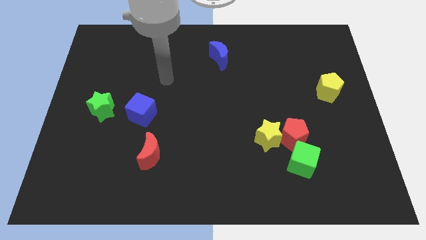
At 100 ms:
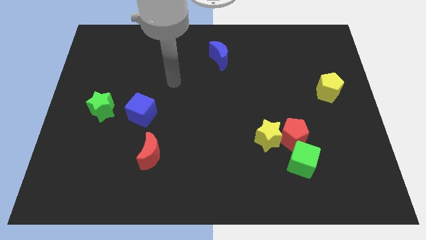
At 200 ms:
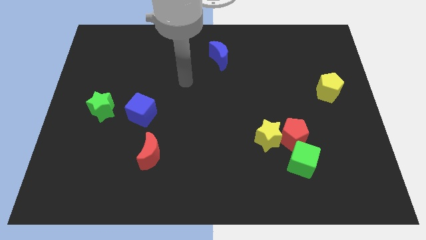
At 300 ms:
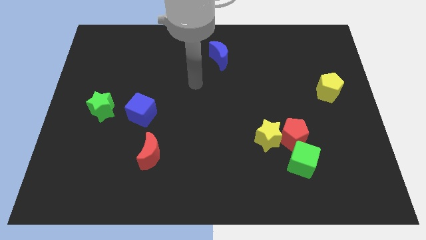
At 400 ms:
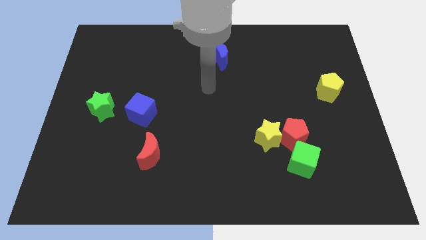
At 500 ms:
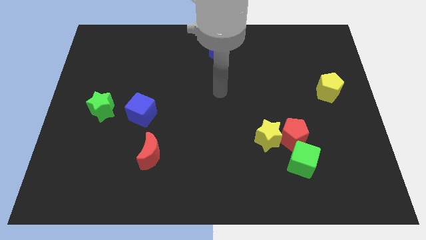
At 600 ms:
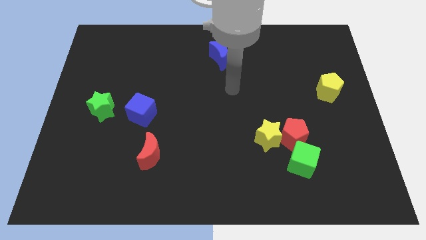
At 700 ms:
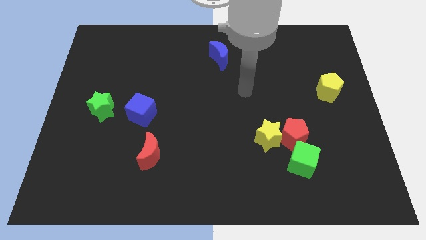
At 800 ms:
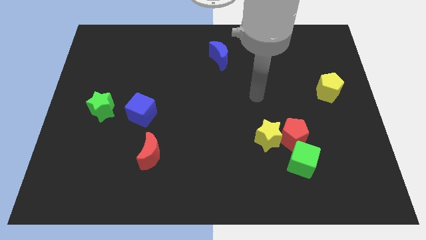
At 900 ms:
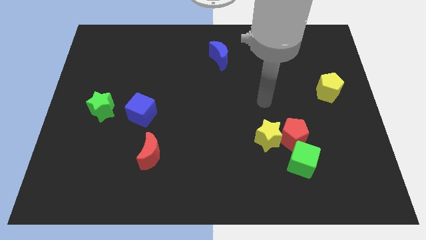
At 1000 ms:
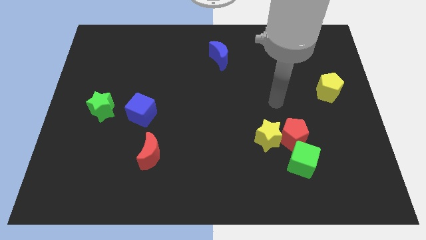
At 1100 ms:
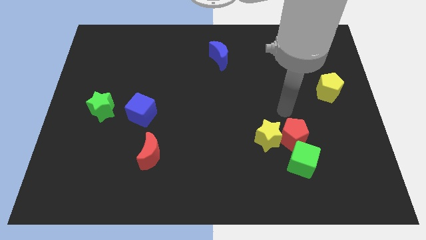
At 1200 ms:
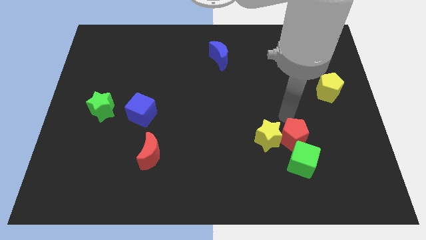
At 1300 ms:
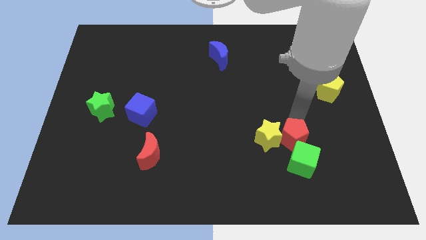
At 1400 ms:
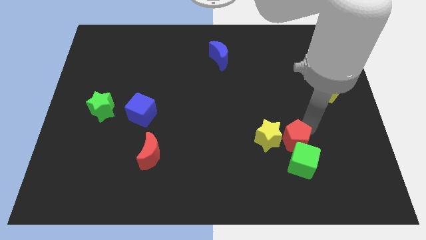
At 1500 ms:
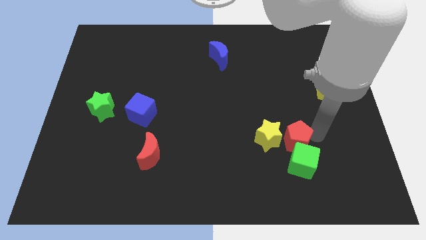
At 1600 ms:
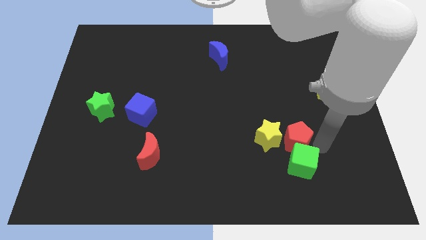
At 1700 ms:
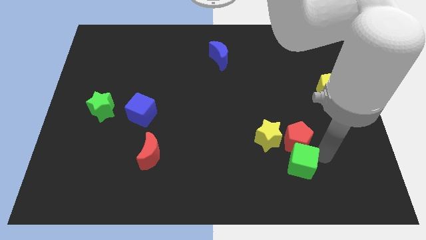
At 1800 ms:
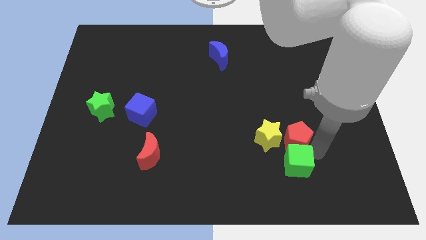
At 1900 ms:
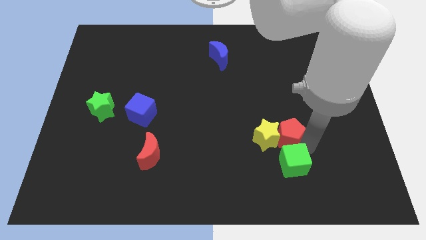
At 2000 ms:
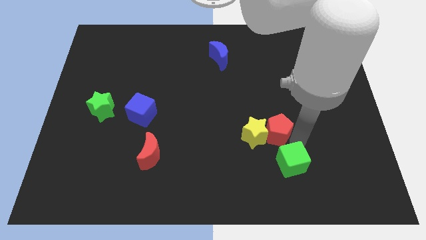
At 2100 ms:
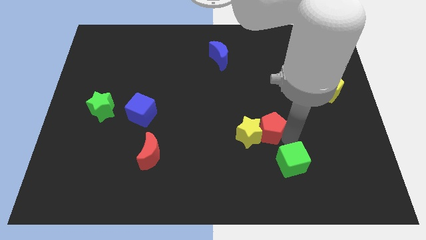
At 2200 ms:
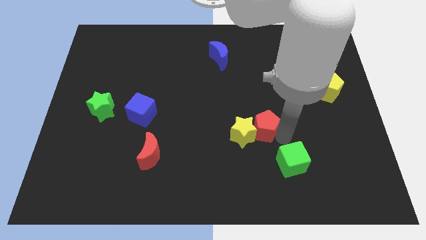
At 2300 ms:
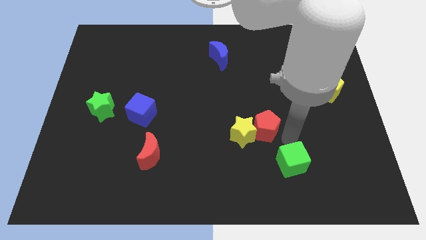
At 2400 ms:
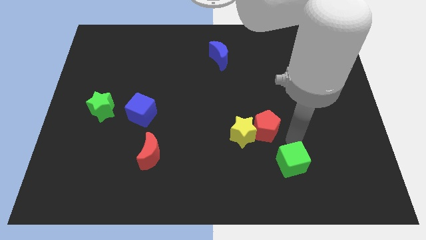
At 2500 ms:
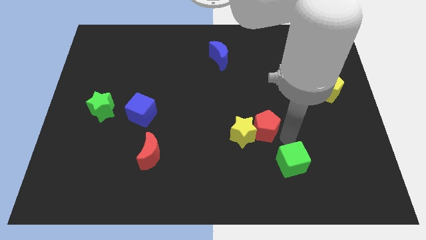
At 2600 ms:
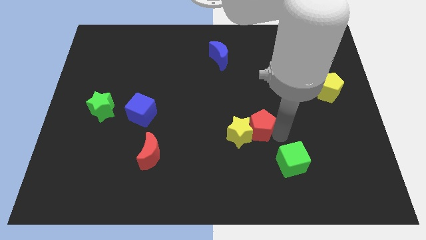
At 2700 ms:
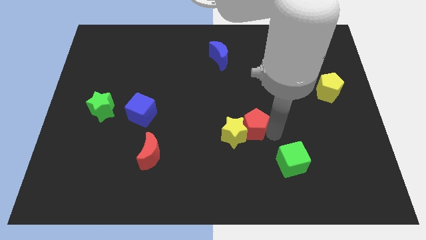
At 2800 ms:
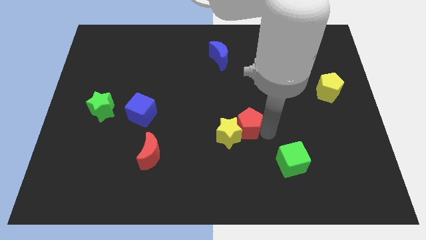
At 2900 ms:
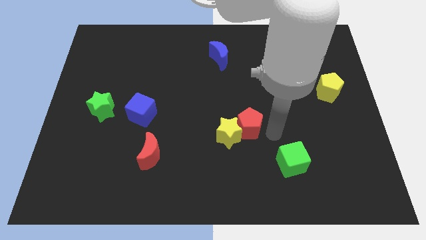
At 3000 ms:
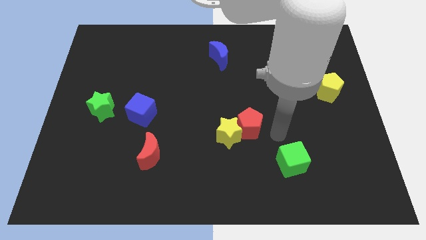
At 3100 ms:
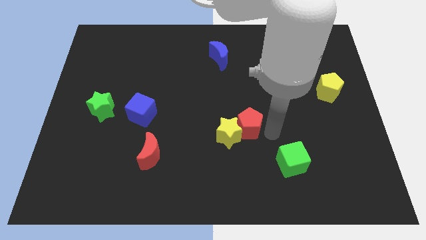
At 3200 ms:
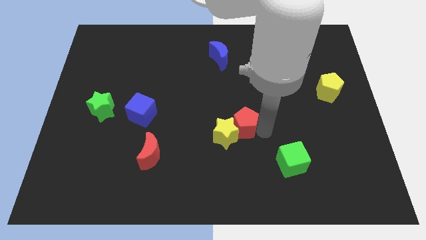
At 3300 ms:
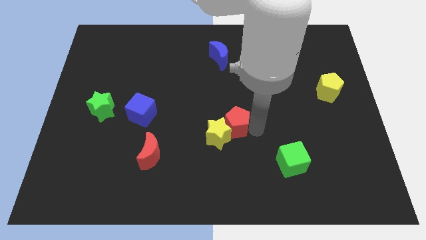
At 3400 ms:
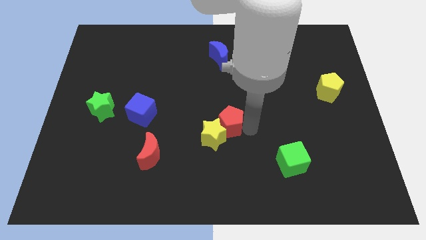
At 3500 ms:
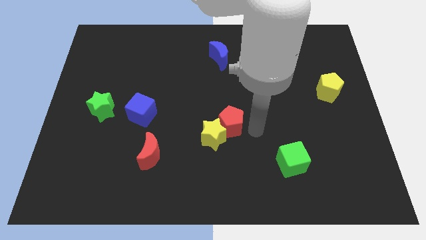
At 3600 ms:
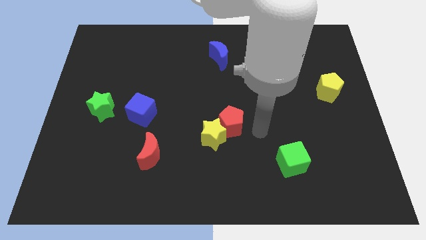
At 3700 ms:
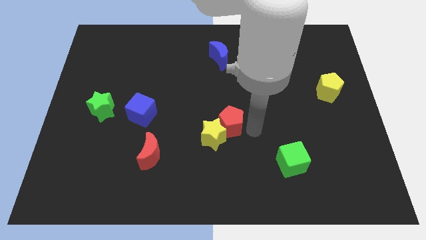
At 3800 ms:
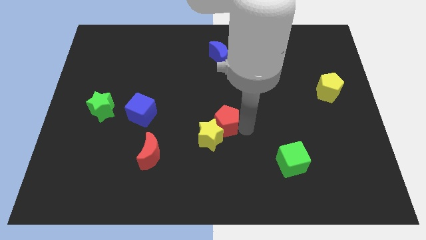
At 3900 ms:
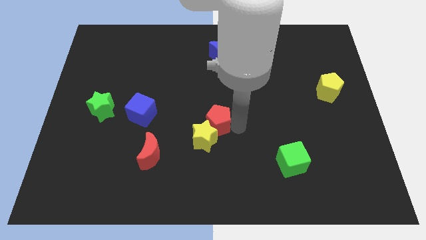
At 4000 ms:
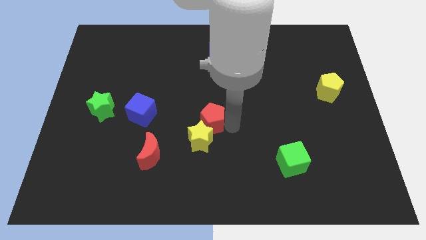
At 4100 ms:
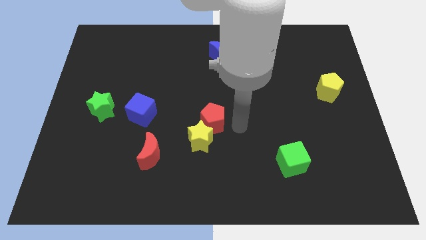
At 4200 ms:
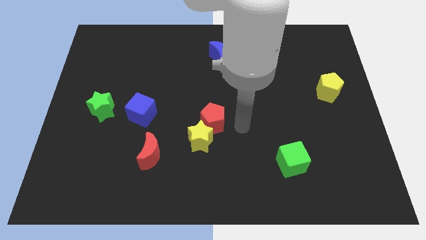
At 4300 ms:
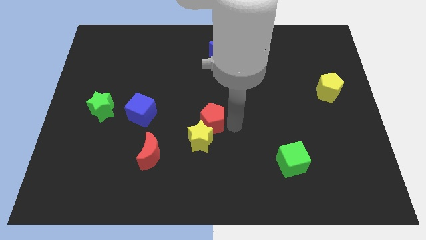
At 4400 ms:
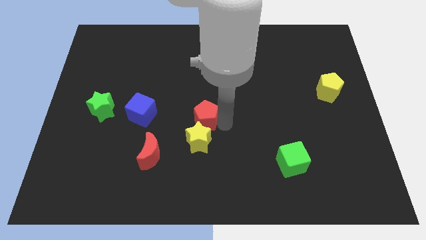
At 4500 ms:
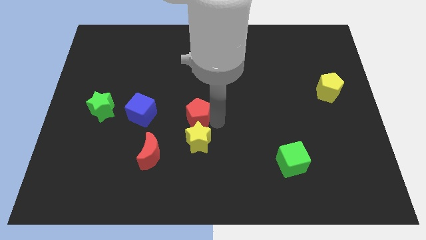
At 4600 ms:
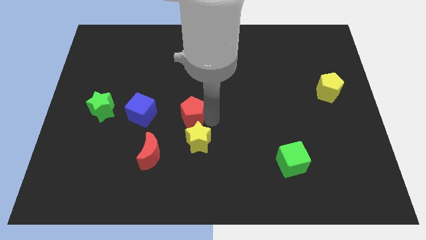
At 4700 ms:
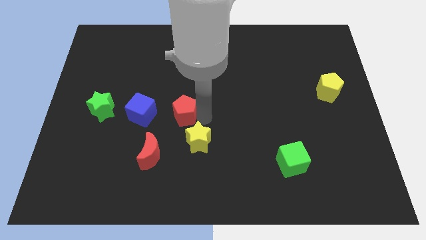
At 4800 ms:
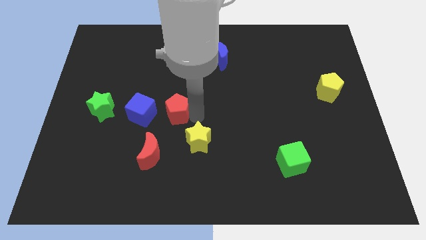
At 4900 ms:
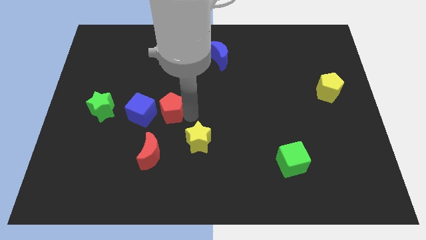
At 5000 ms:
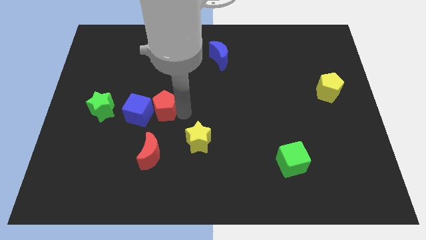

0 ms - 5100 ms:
put the red pentagon next to the blue cube

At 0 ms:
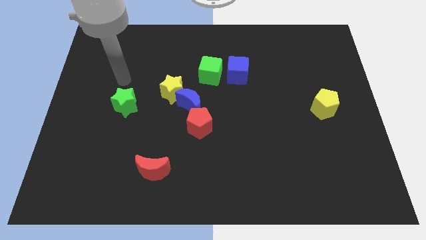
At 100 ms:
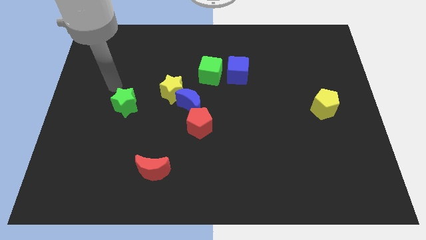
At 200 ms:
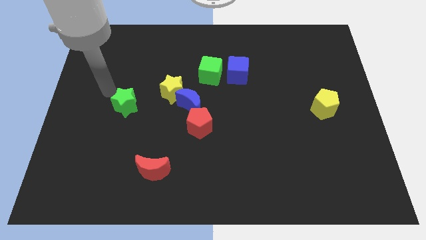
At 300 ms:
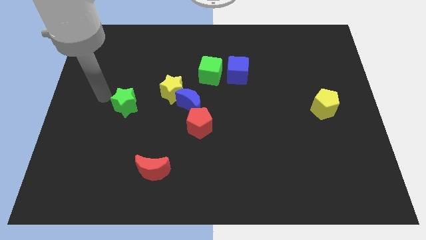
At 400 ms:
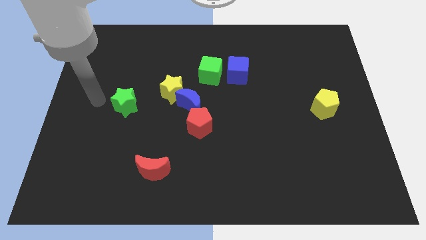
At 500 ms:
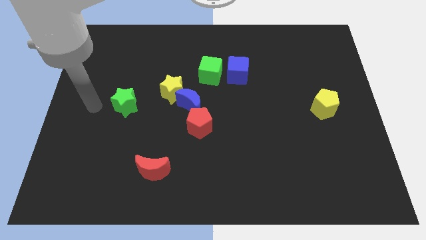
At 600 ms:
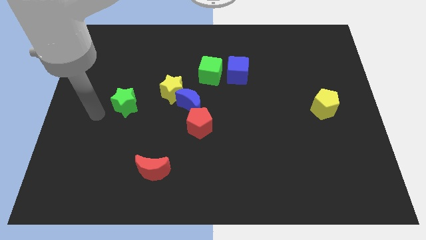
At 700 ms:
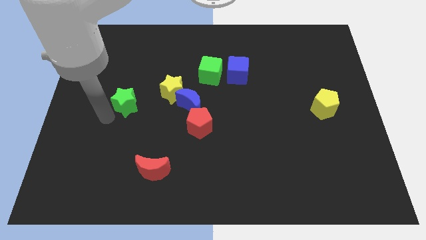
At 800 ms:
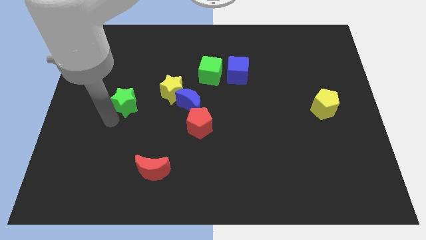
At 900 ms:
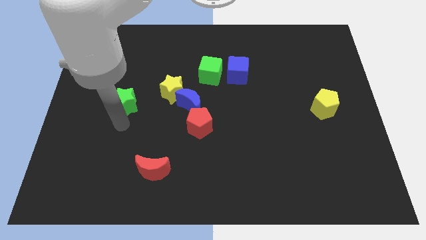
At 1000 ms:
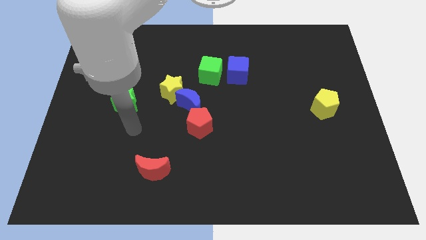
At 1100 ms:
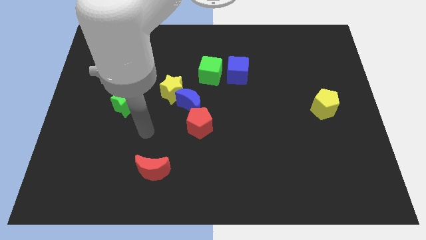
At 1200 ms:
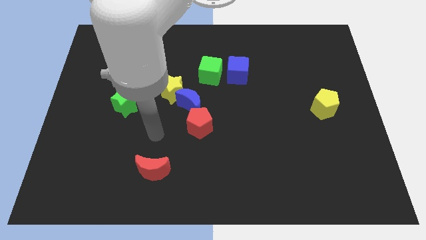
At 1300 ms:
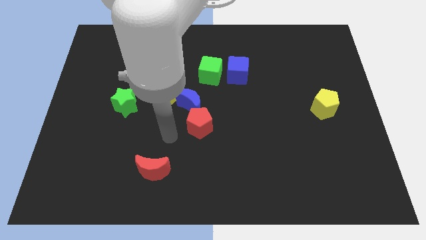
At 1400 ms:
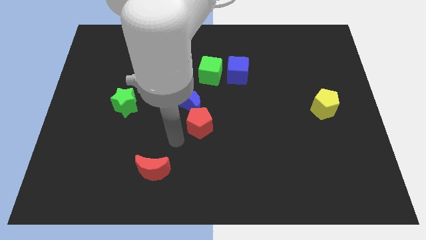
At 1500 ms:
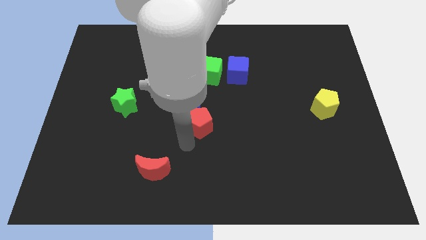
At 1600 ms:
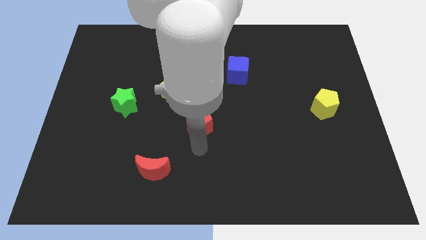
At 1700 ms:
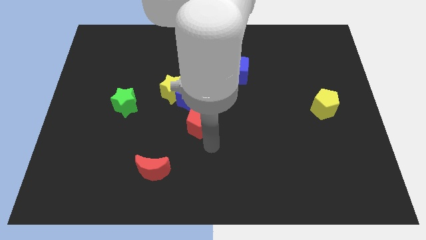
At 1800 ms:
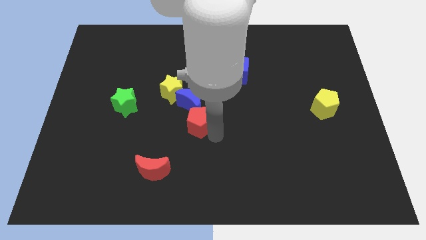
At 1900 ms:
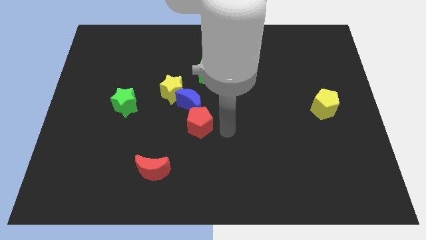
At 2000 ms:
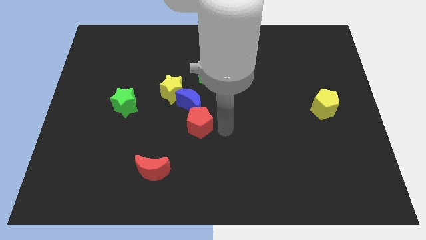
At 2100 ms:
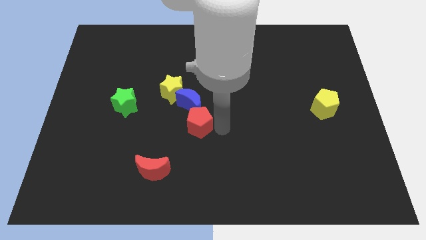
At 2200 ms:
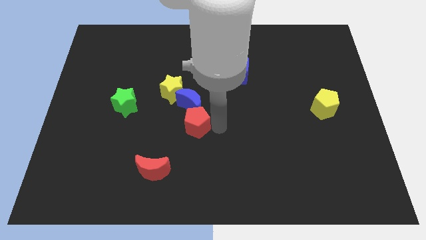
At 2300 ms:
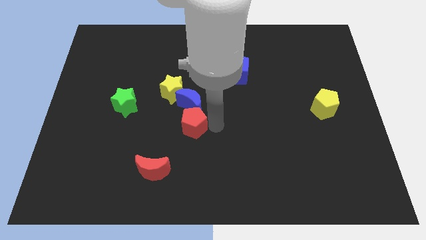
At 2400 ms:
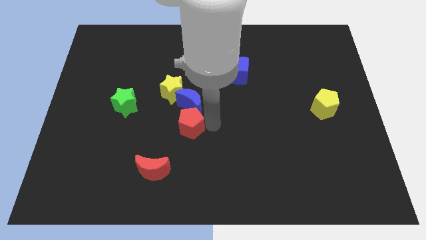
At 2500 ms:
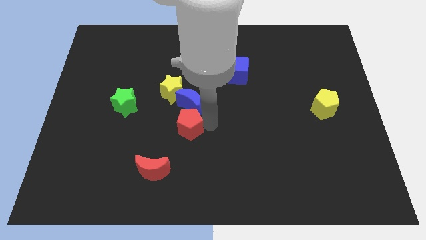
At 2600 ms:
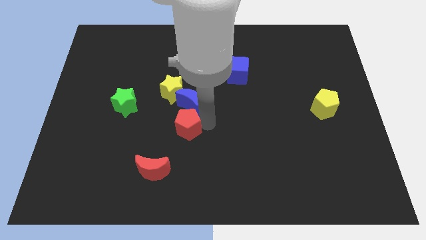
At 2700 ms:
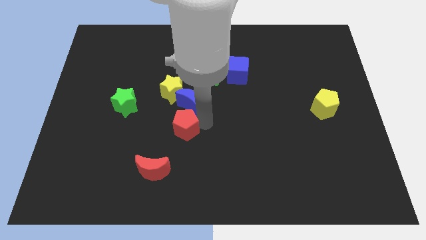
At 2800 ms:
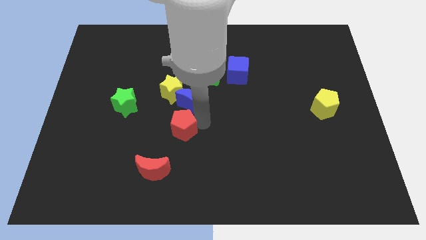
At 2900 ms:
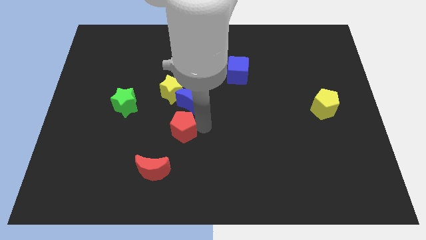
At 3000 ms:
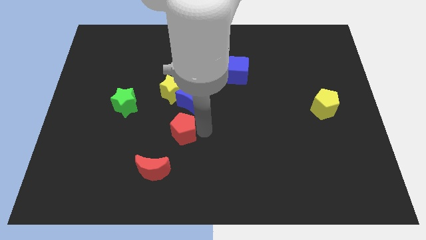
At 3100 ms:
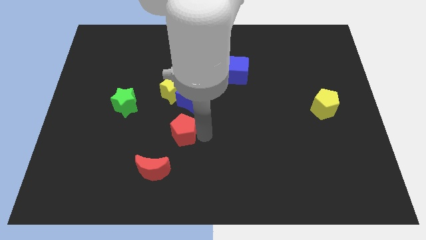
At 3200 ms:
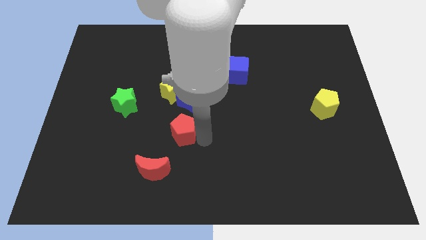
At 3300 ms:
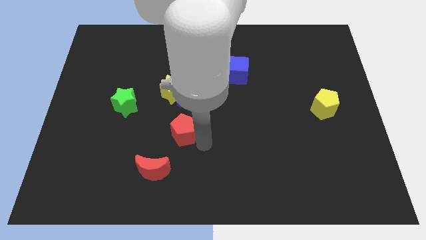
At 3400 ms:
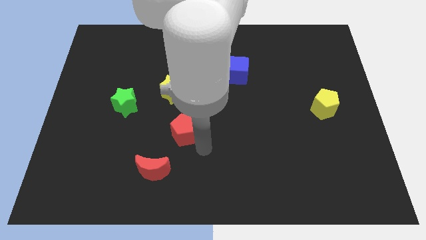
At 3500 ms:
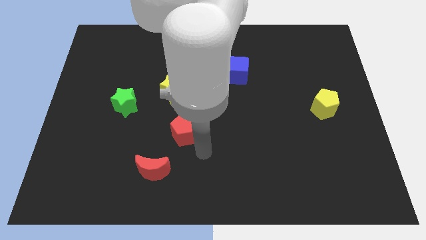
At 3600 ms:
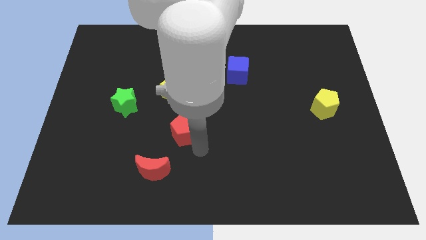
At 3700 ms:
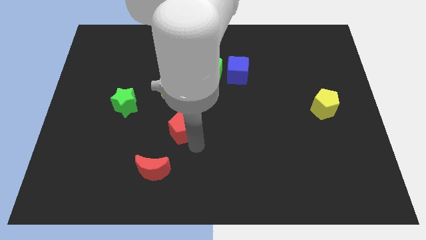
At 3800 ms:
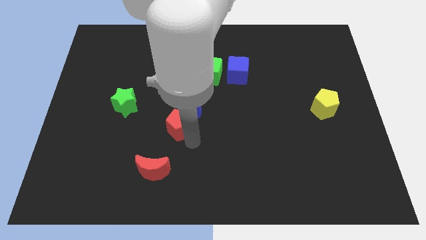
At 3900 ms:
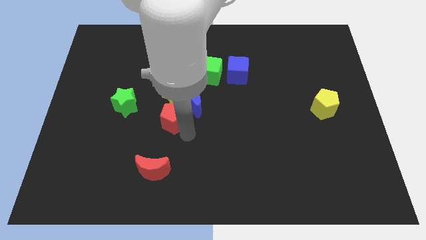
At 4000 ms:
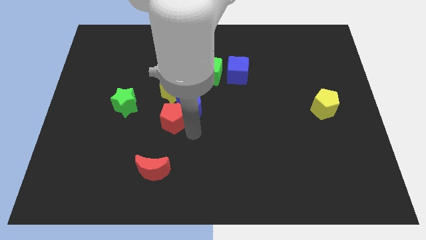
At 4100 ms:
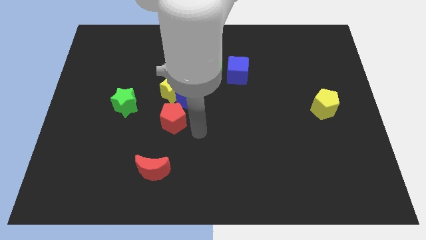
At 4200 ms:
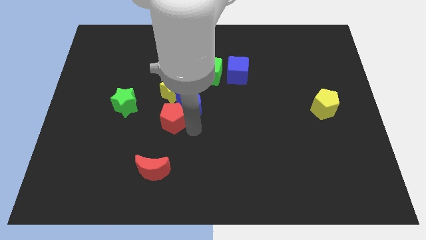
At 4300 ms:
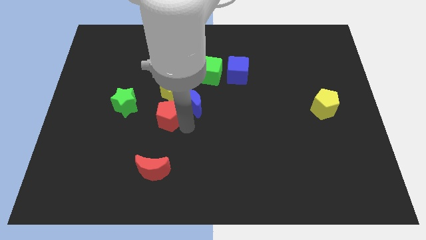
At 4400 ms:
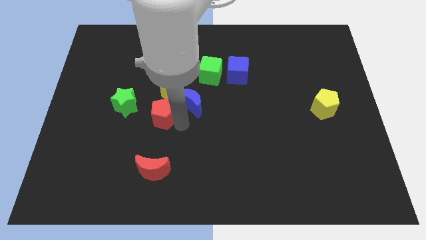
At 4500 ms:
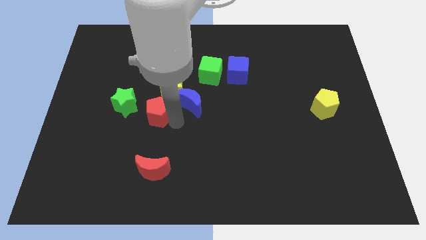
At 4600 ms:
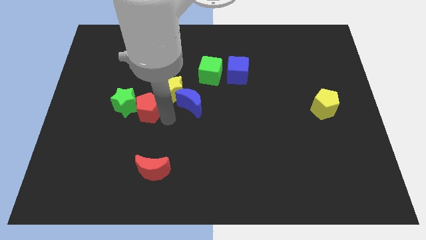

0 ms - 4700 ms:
slide the red pentagon towards the green star
